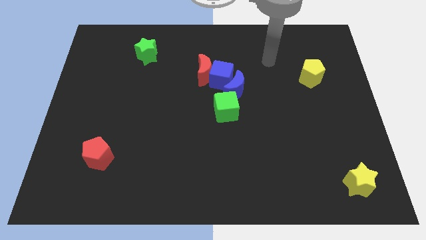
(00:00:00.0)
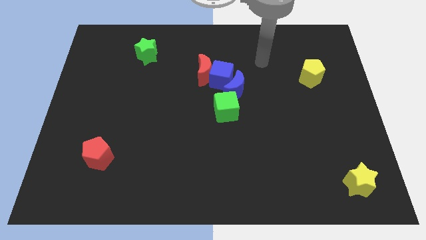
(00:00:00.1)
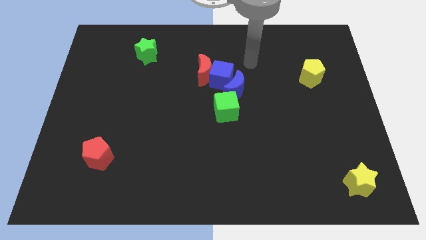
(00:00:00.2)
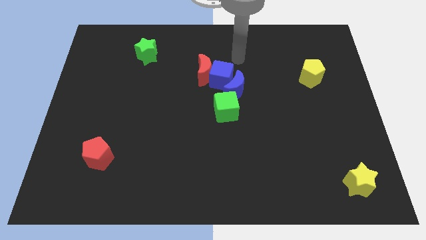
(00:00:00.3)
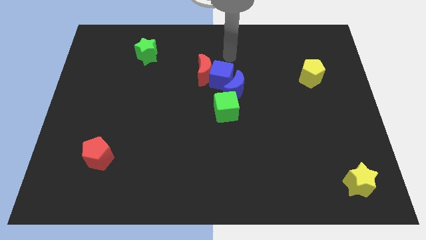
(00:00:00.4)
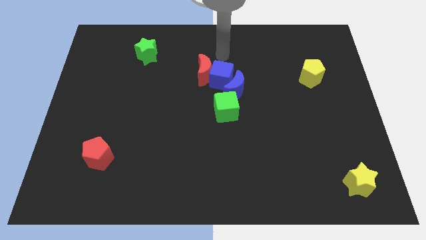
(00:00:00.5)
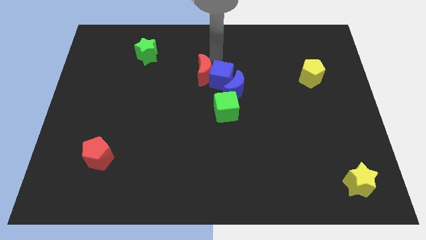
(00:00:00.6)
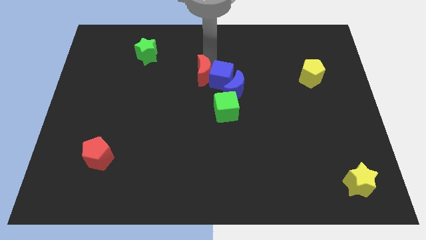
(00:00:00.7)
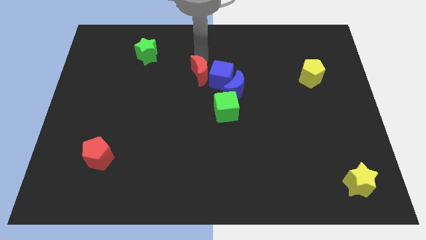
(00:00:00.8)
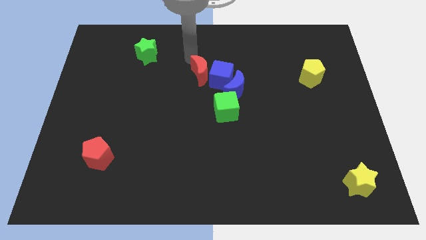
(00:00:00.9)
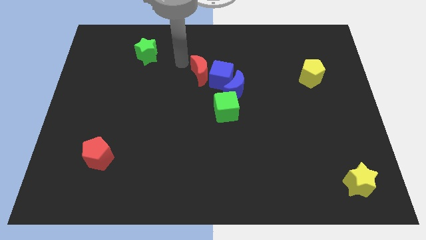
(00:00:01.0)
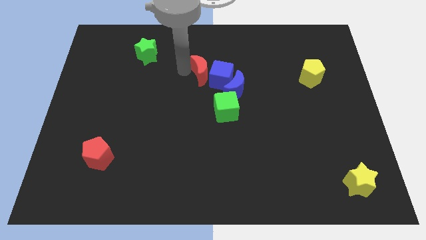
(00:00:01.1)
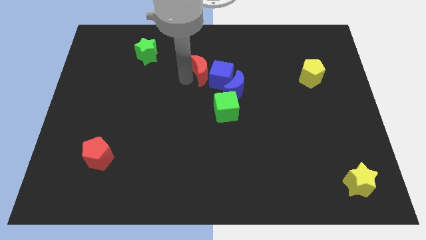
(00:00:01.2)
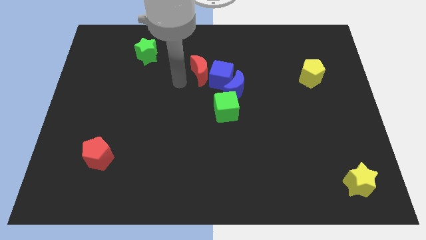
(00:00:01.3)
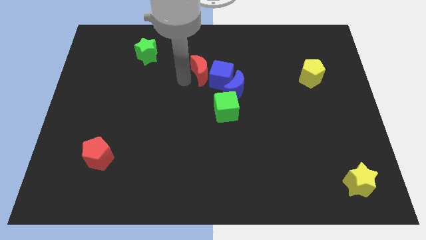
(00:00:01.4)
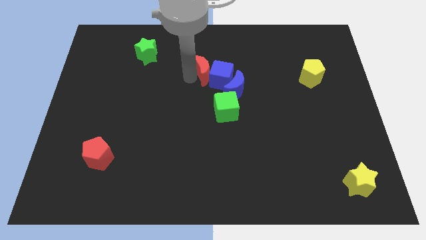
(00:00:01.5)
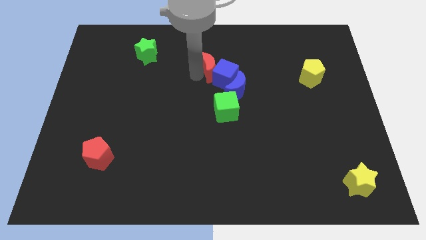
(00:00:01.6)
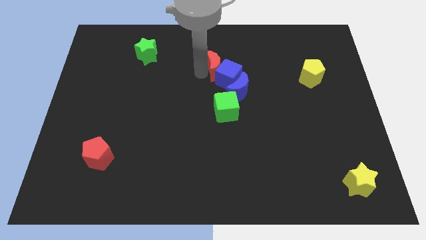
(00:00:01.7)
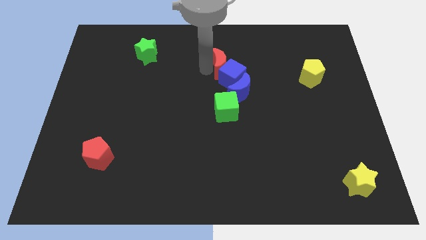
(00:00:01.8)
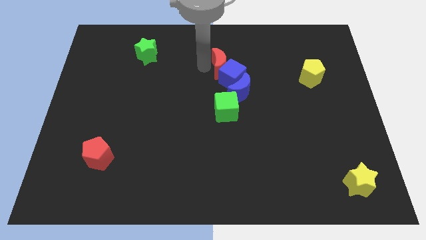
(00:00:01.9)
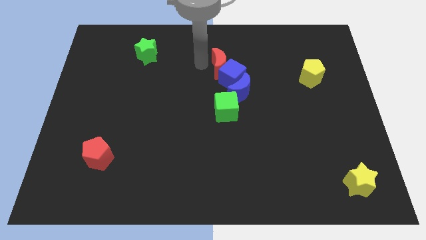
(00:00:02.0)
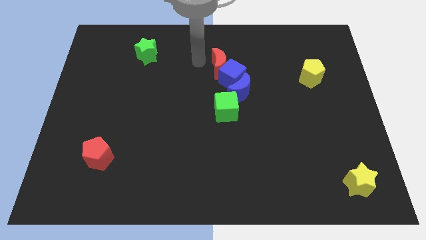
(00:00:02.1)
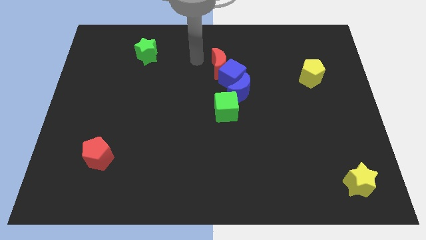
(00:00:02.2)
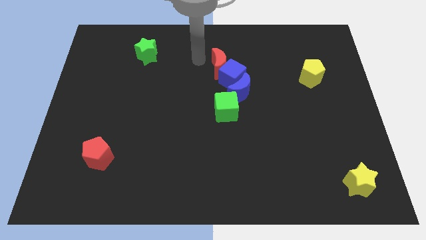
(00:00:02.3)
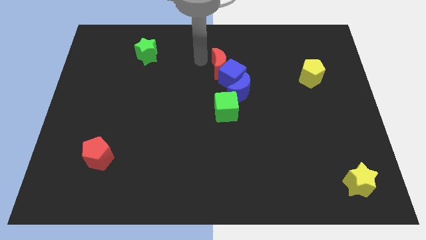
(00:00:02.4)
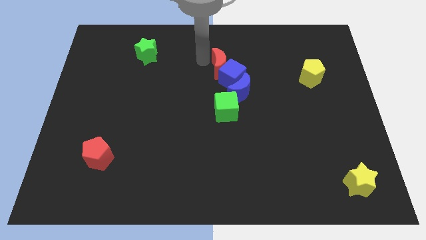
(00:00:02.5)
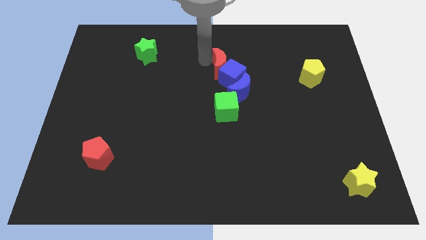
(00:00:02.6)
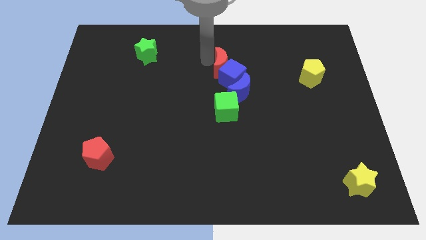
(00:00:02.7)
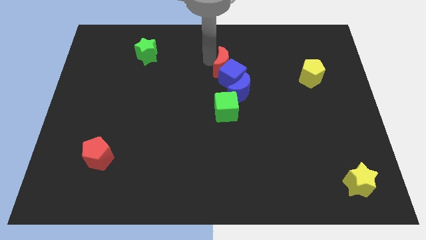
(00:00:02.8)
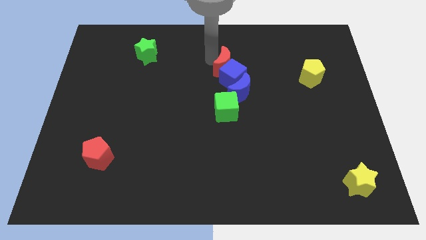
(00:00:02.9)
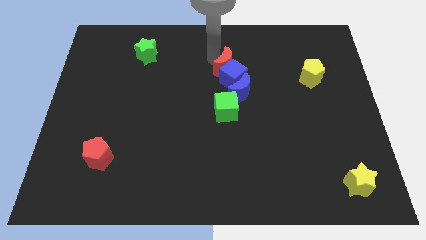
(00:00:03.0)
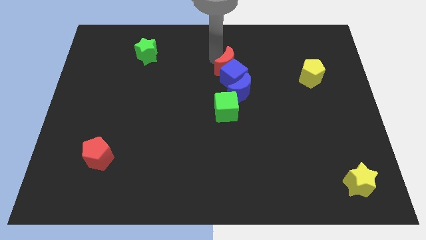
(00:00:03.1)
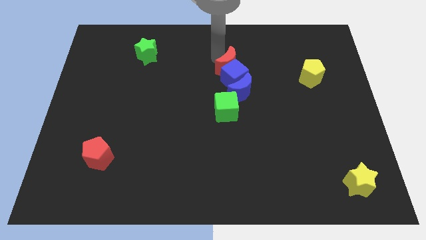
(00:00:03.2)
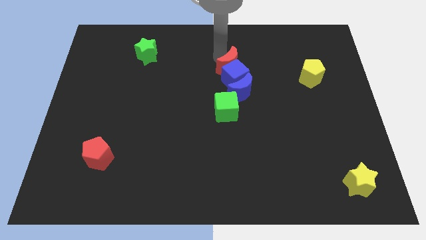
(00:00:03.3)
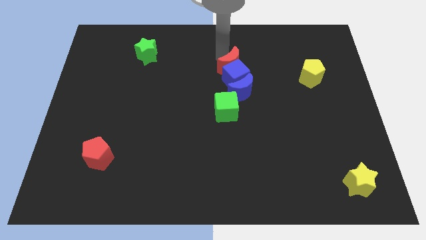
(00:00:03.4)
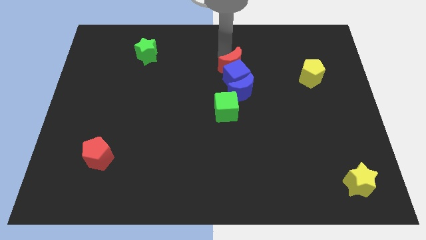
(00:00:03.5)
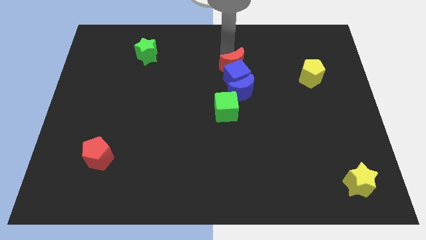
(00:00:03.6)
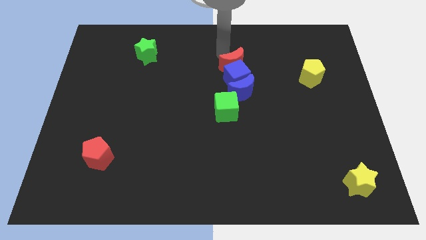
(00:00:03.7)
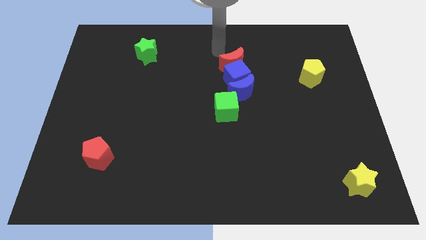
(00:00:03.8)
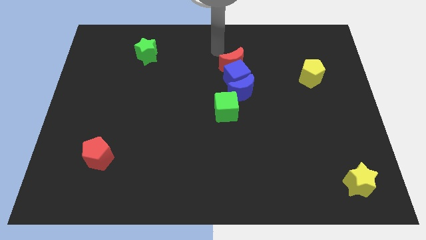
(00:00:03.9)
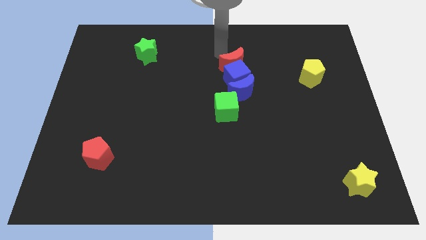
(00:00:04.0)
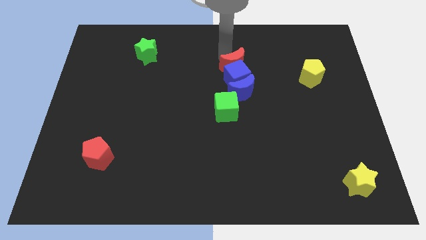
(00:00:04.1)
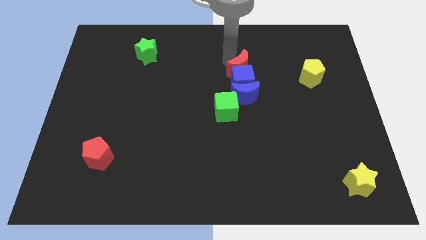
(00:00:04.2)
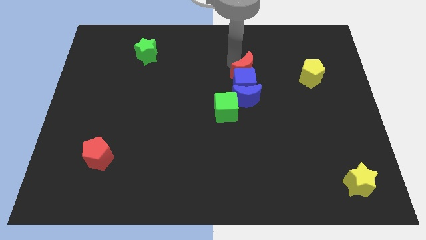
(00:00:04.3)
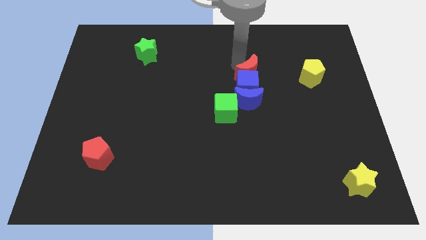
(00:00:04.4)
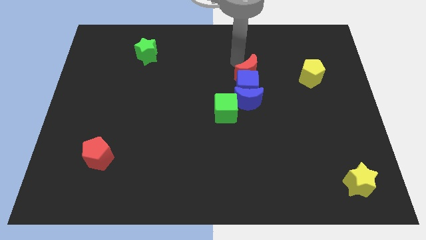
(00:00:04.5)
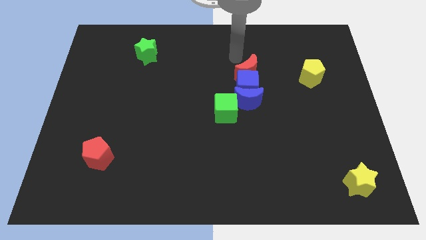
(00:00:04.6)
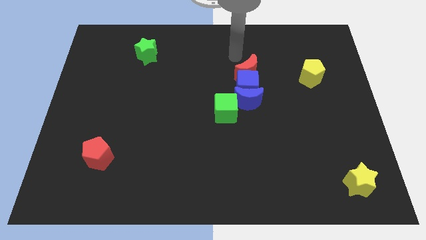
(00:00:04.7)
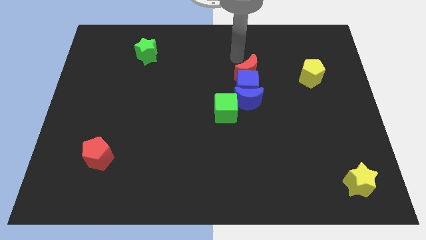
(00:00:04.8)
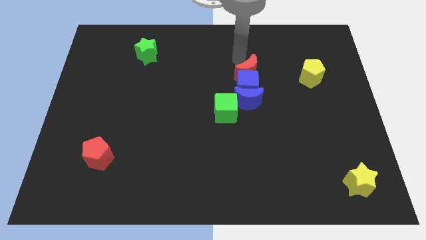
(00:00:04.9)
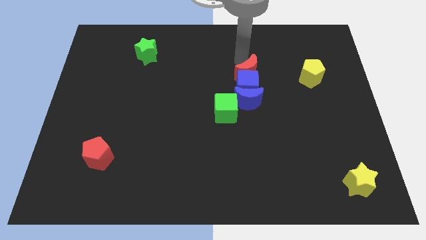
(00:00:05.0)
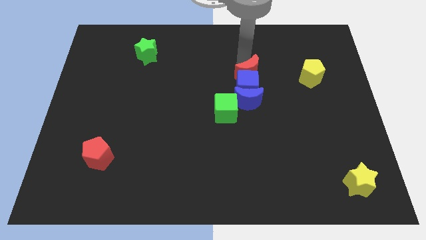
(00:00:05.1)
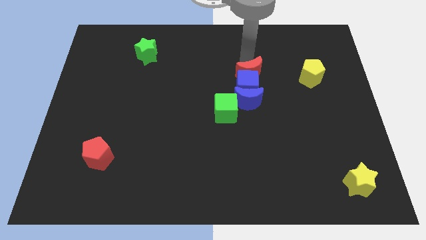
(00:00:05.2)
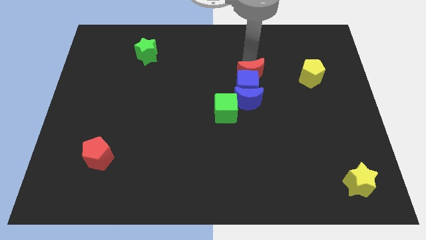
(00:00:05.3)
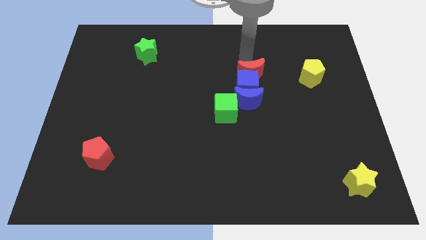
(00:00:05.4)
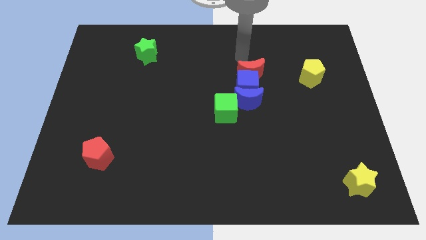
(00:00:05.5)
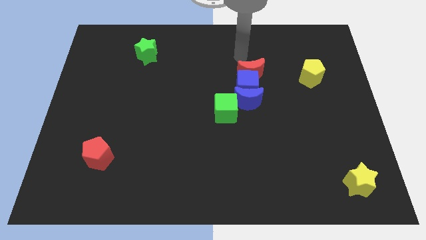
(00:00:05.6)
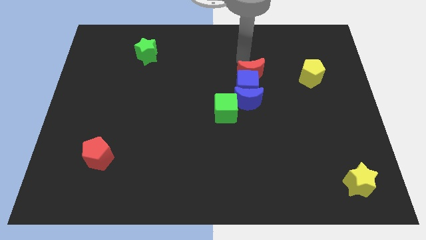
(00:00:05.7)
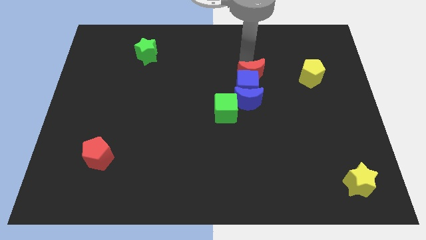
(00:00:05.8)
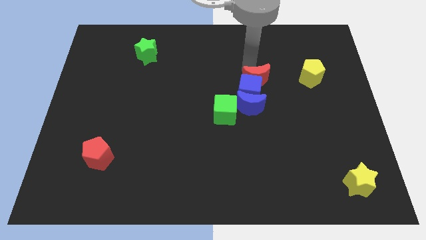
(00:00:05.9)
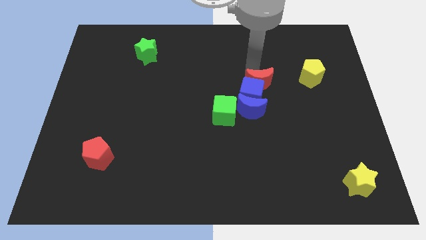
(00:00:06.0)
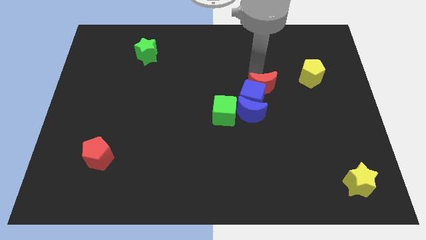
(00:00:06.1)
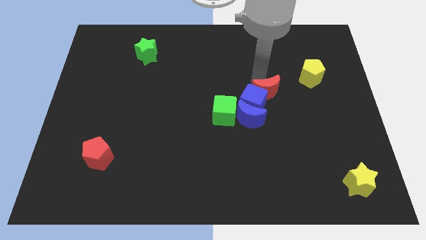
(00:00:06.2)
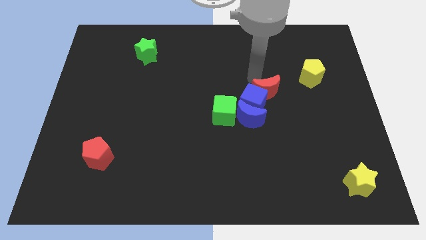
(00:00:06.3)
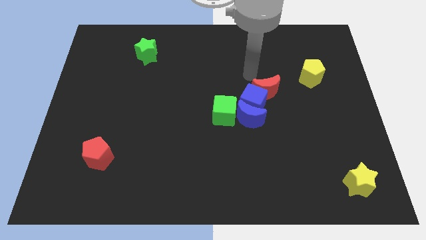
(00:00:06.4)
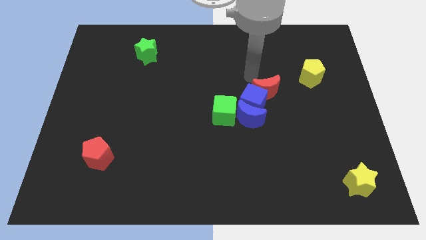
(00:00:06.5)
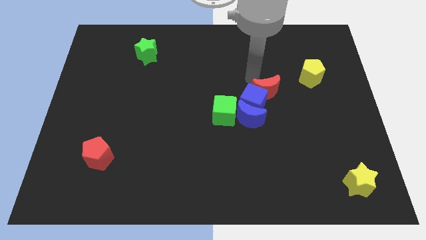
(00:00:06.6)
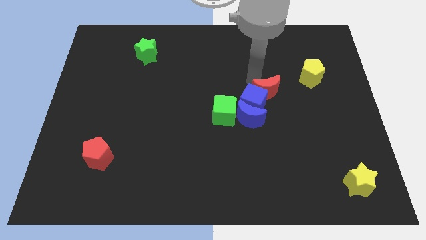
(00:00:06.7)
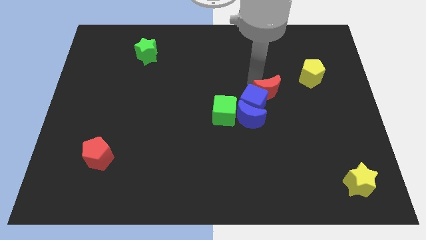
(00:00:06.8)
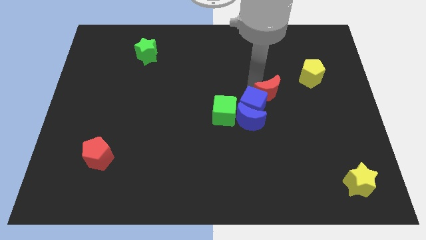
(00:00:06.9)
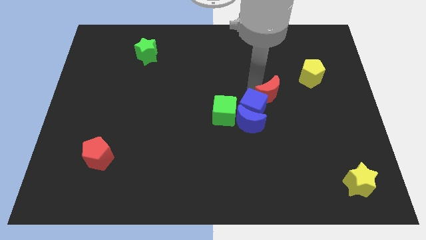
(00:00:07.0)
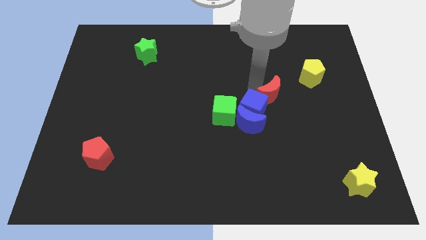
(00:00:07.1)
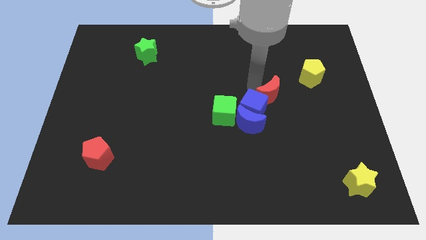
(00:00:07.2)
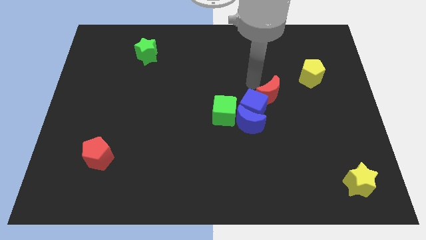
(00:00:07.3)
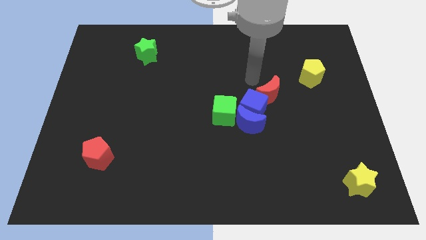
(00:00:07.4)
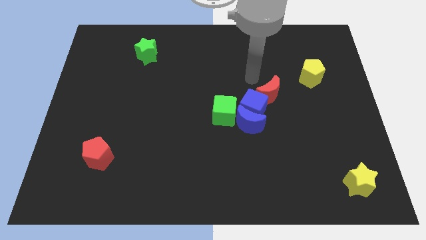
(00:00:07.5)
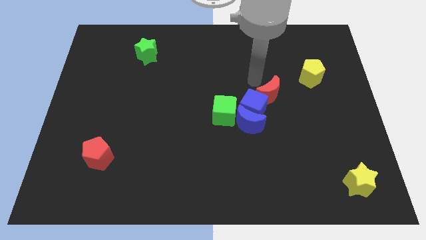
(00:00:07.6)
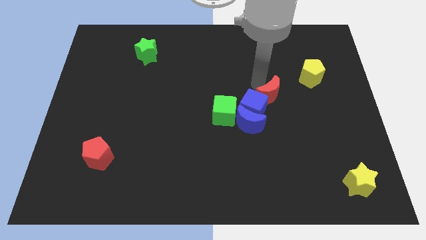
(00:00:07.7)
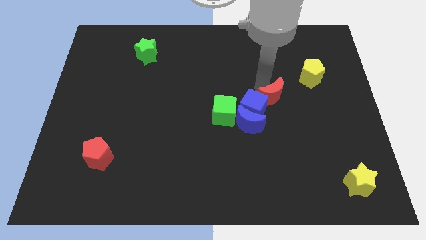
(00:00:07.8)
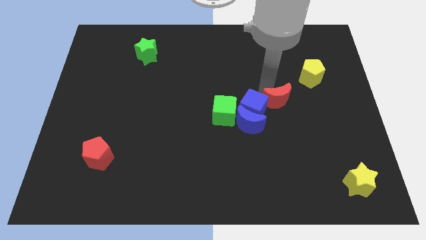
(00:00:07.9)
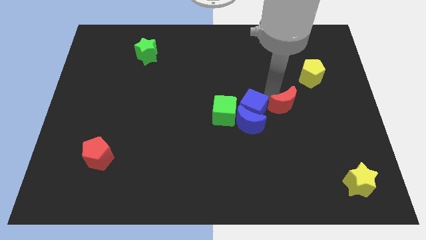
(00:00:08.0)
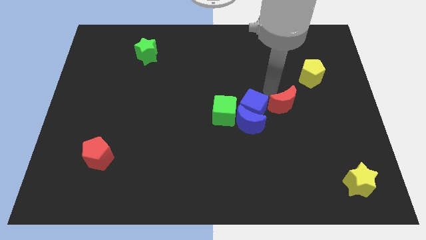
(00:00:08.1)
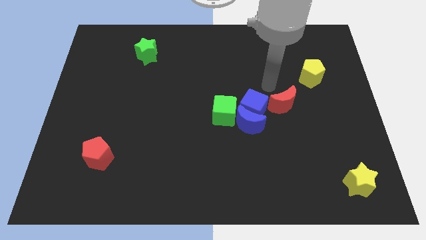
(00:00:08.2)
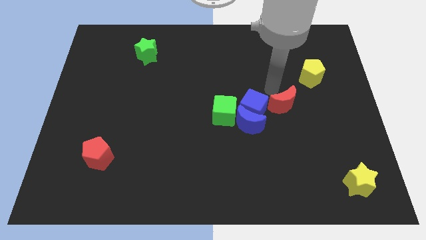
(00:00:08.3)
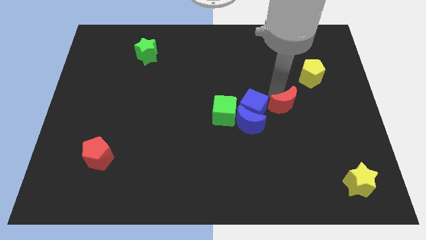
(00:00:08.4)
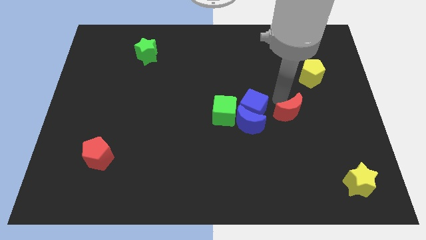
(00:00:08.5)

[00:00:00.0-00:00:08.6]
slide the red moon downwards and right diagonally
